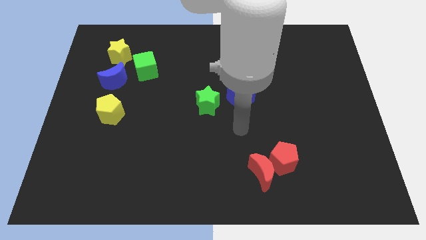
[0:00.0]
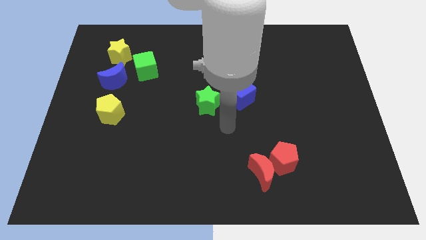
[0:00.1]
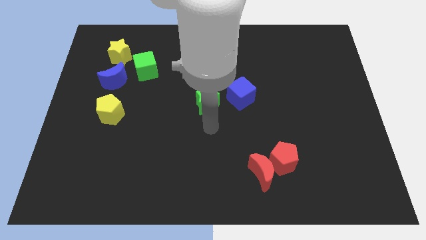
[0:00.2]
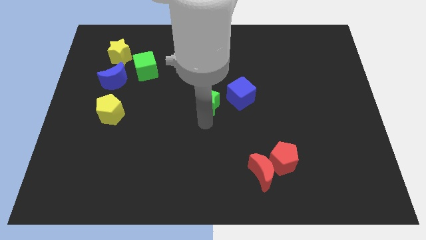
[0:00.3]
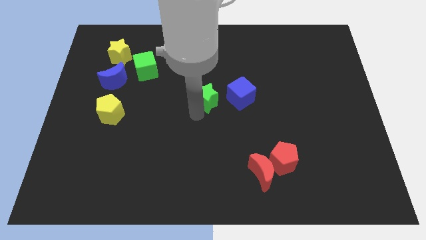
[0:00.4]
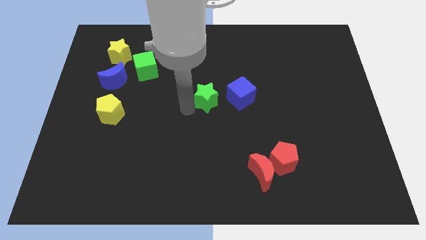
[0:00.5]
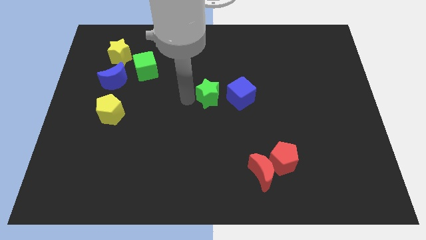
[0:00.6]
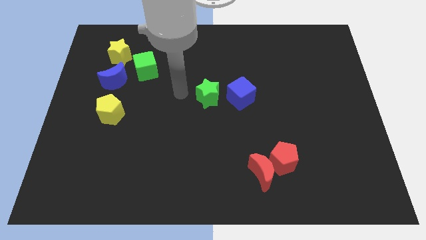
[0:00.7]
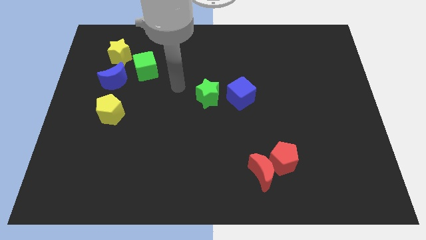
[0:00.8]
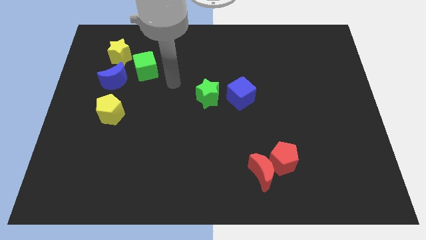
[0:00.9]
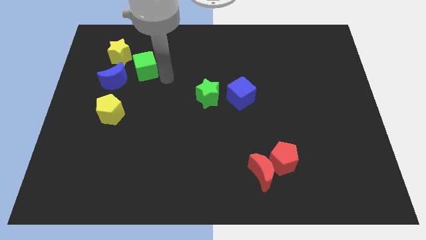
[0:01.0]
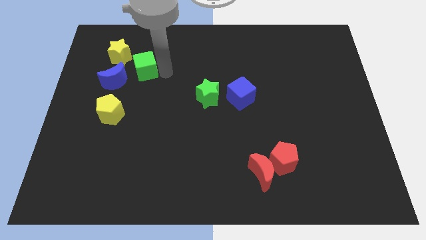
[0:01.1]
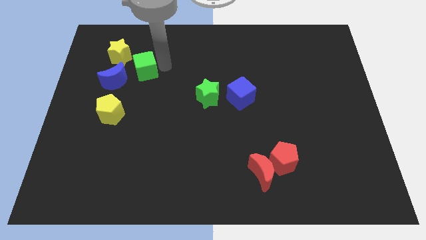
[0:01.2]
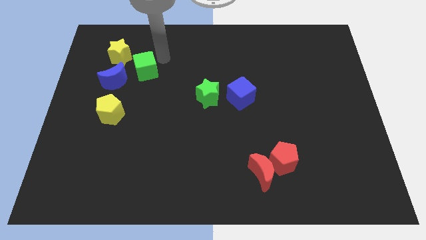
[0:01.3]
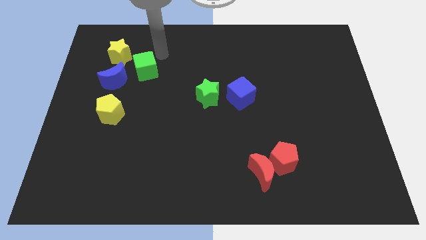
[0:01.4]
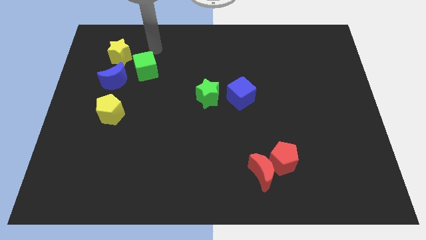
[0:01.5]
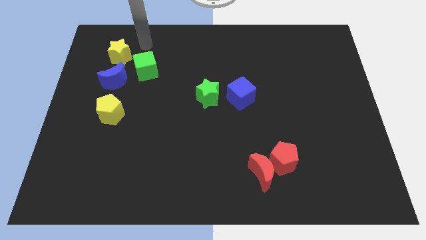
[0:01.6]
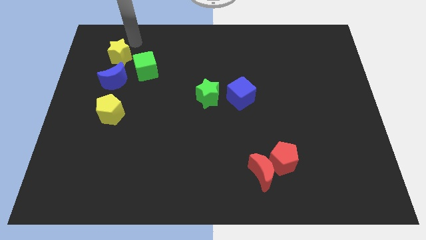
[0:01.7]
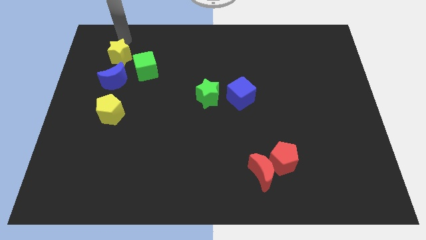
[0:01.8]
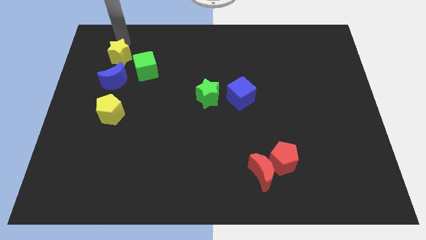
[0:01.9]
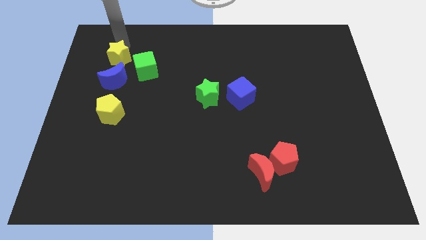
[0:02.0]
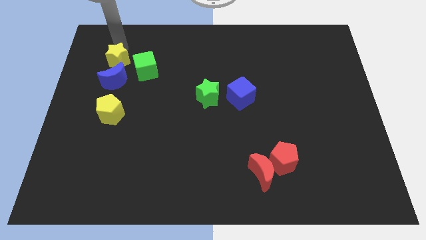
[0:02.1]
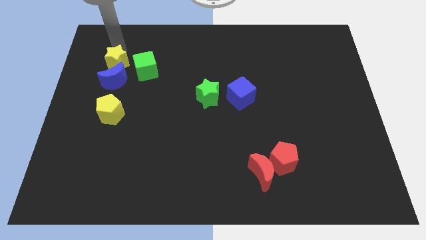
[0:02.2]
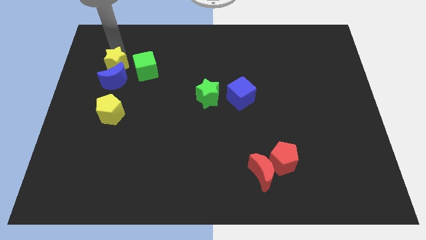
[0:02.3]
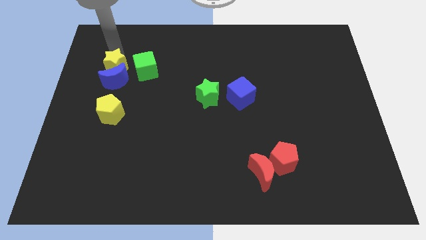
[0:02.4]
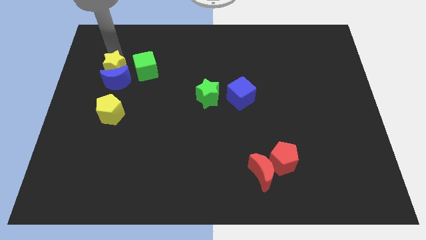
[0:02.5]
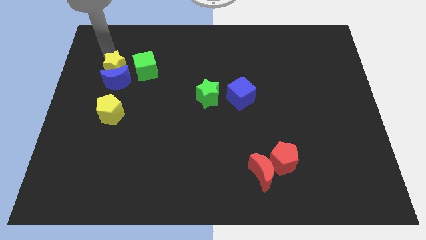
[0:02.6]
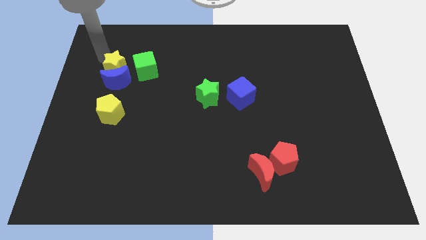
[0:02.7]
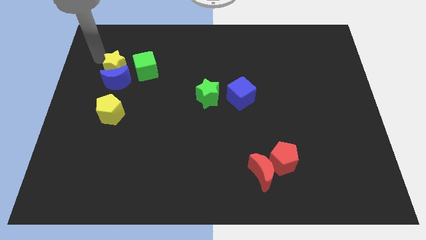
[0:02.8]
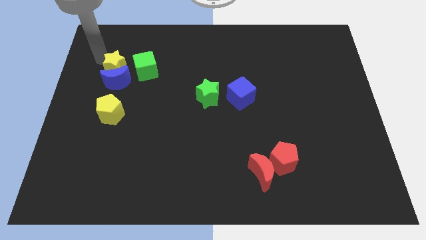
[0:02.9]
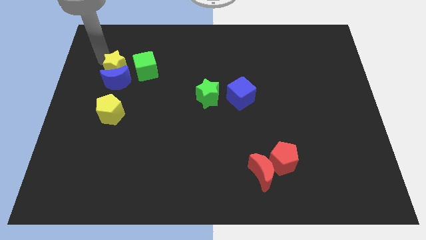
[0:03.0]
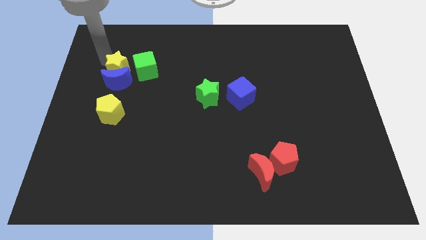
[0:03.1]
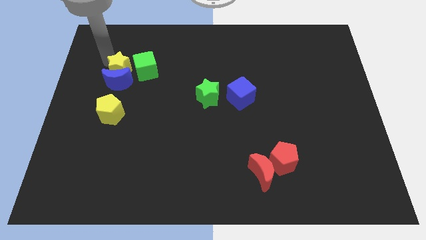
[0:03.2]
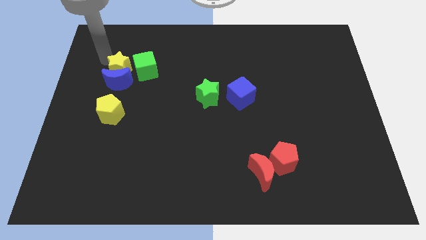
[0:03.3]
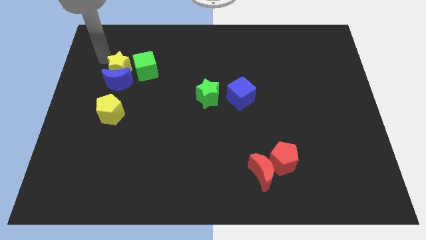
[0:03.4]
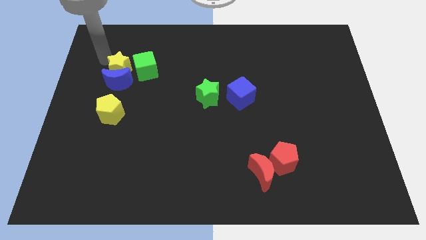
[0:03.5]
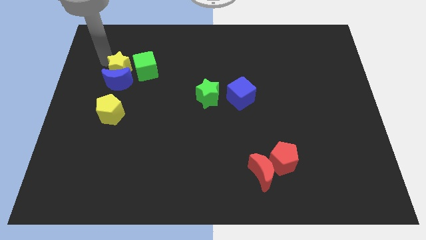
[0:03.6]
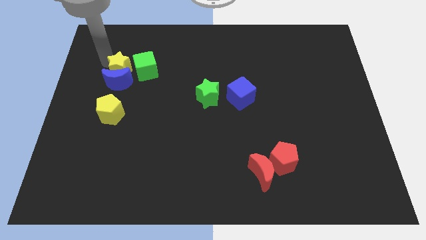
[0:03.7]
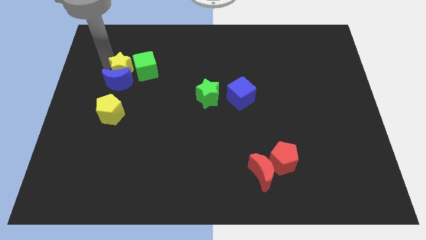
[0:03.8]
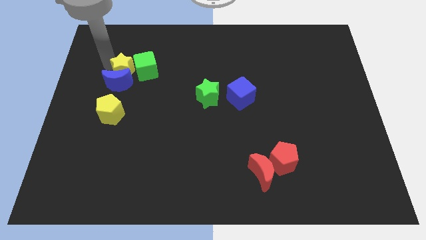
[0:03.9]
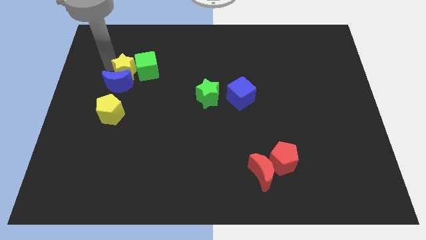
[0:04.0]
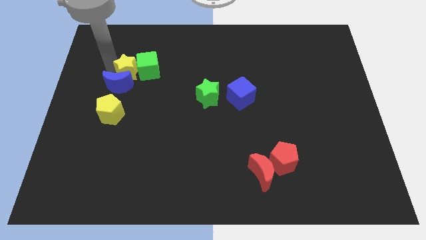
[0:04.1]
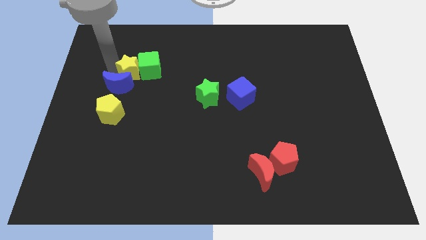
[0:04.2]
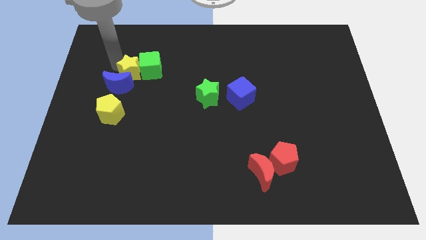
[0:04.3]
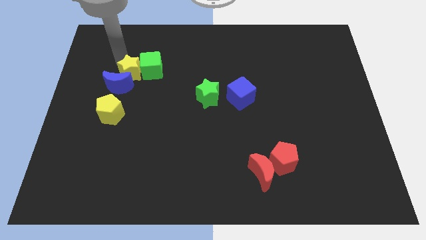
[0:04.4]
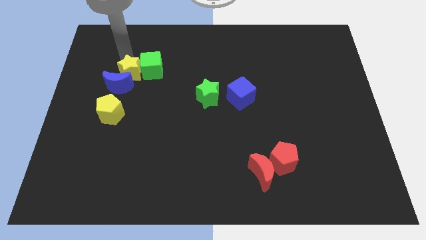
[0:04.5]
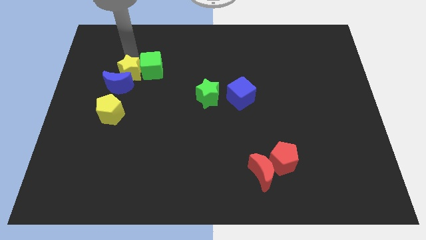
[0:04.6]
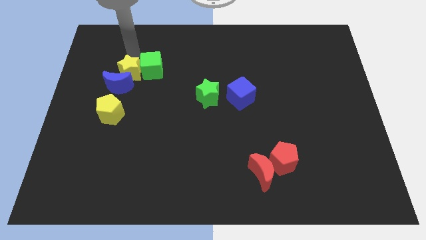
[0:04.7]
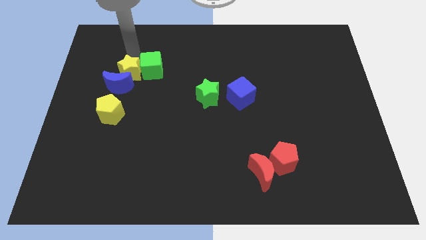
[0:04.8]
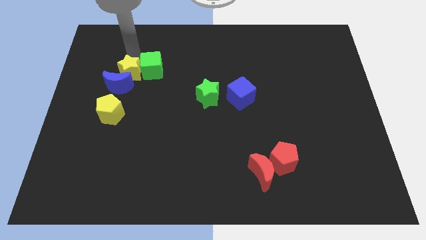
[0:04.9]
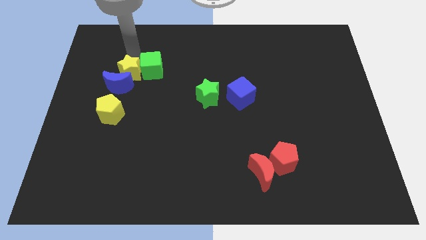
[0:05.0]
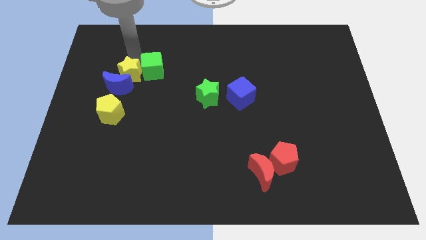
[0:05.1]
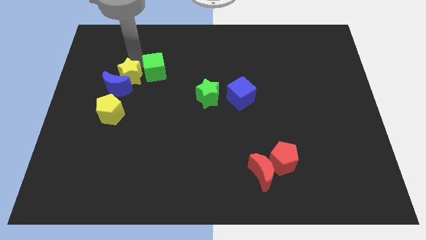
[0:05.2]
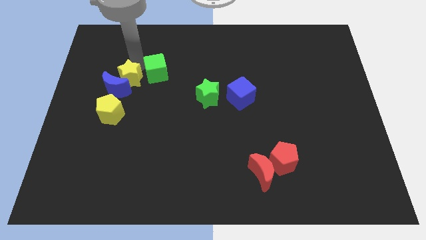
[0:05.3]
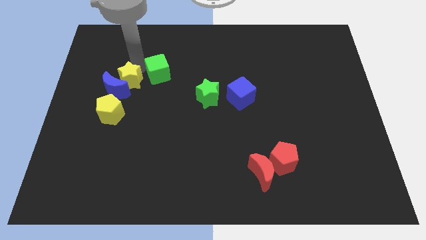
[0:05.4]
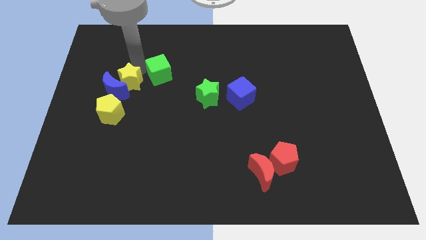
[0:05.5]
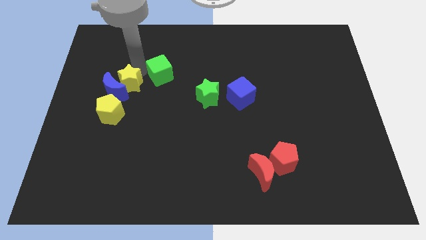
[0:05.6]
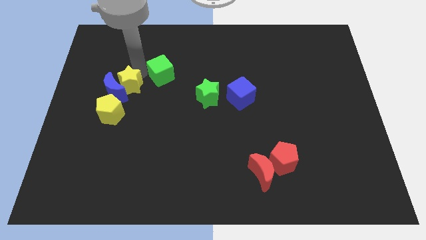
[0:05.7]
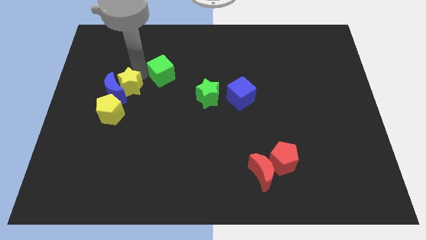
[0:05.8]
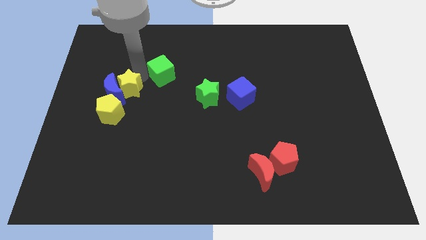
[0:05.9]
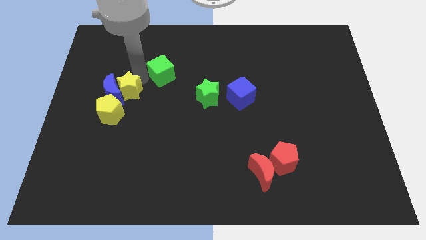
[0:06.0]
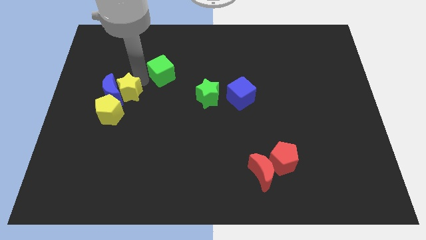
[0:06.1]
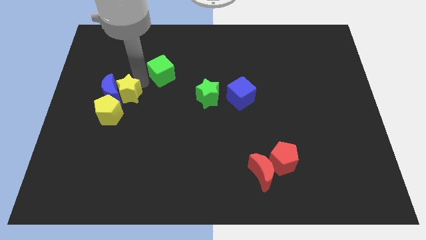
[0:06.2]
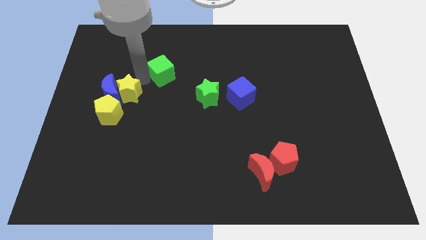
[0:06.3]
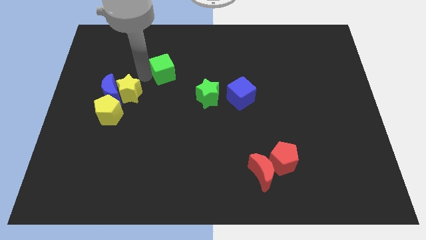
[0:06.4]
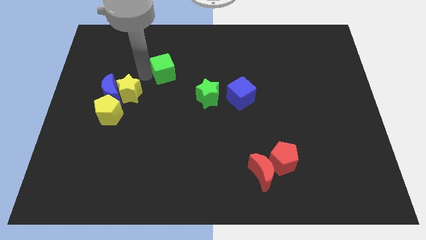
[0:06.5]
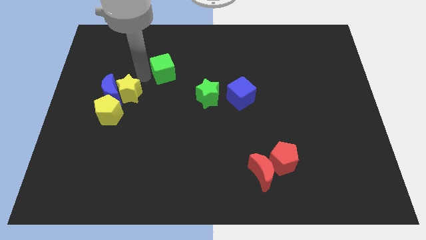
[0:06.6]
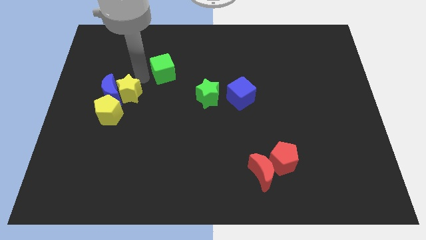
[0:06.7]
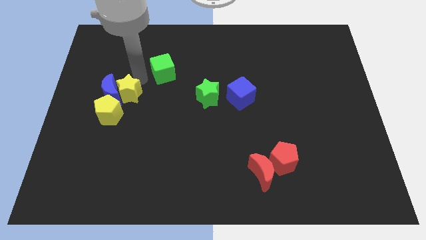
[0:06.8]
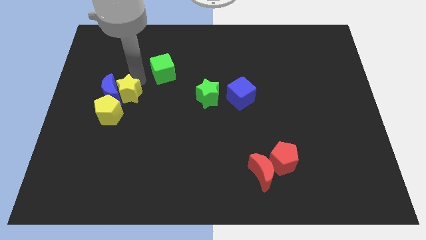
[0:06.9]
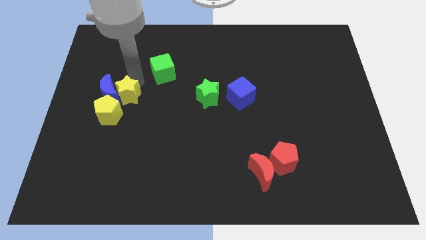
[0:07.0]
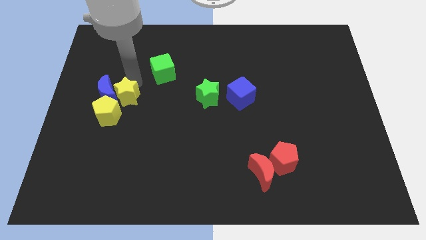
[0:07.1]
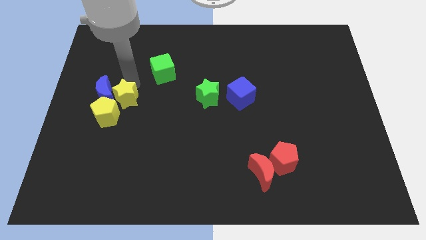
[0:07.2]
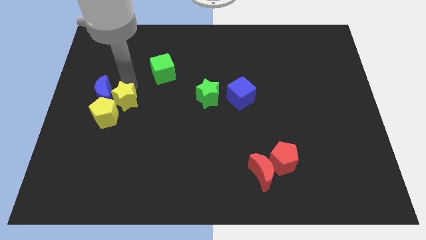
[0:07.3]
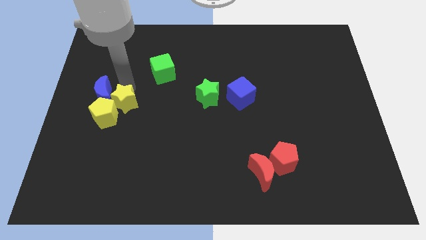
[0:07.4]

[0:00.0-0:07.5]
push the yellow star next to the yellow pentagon
